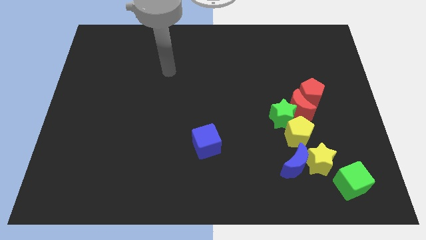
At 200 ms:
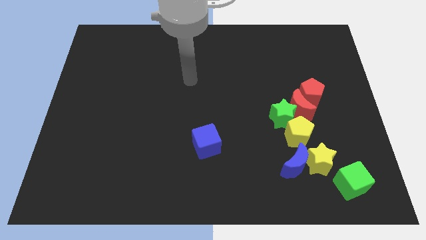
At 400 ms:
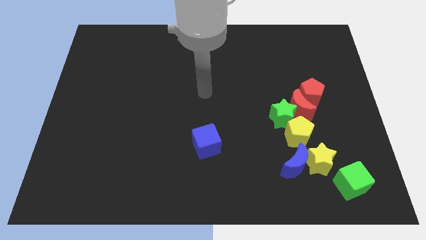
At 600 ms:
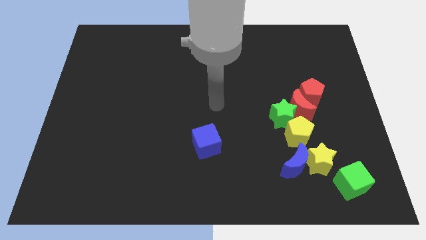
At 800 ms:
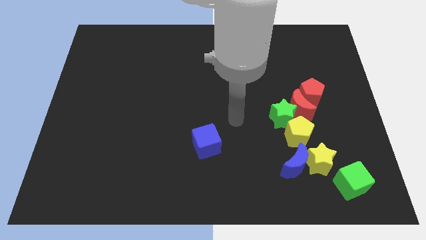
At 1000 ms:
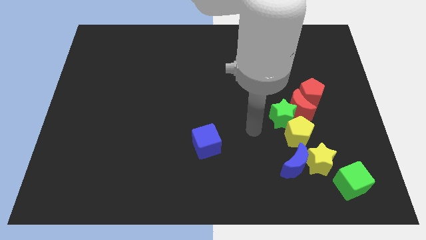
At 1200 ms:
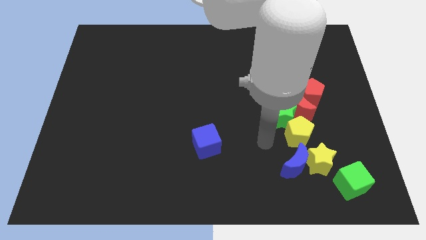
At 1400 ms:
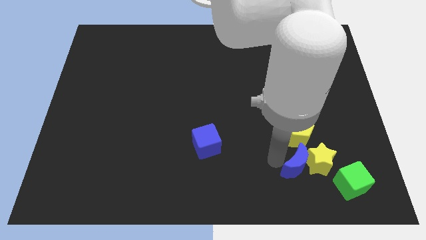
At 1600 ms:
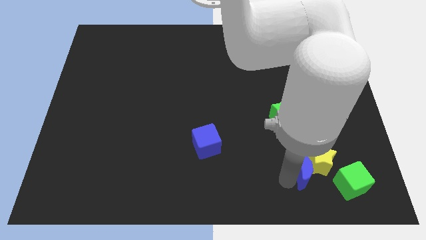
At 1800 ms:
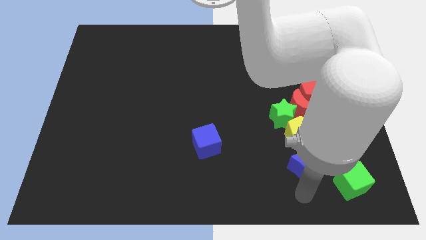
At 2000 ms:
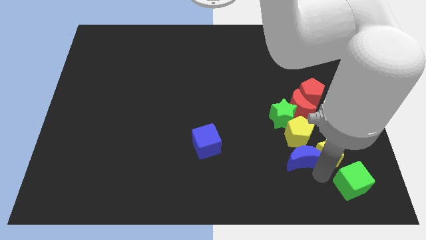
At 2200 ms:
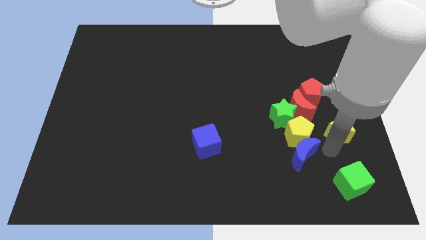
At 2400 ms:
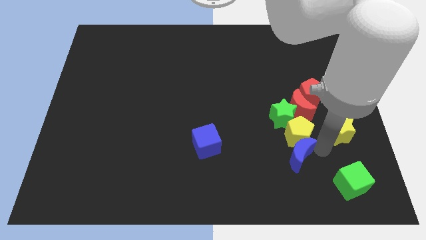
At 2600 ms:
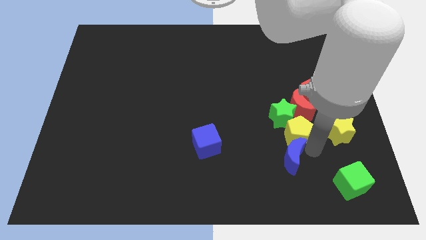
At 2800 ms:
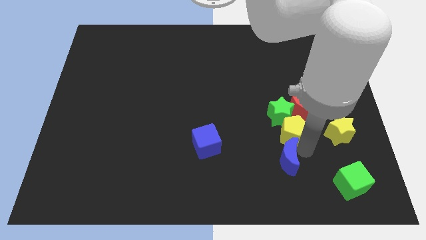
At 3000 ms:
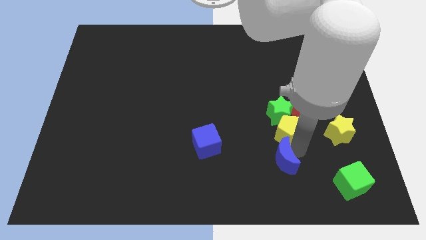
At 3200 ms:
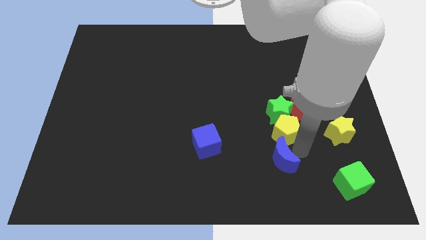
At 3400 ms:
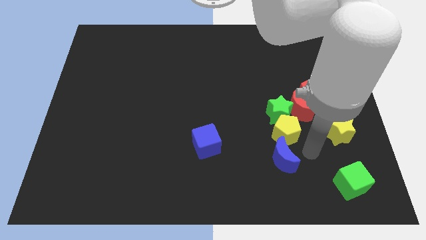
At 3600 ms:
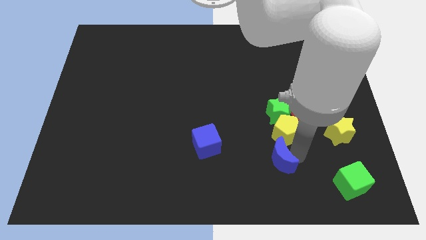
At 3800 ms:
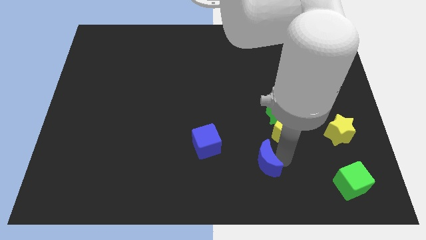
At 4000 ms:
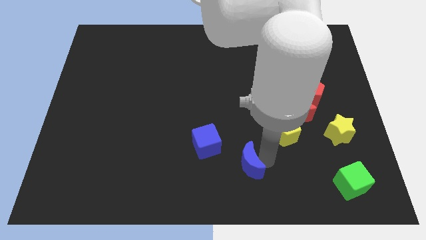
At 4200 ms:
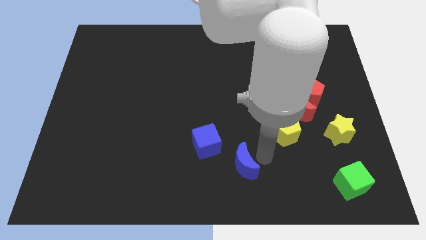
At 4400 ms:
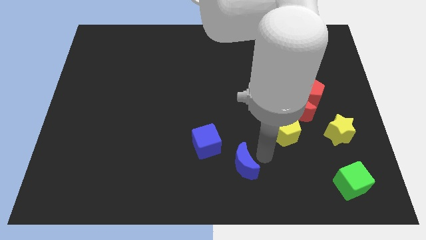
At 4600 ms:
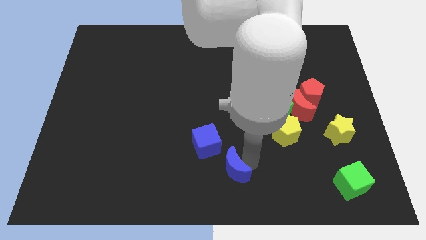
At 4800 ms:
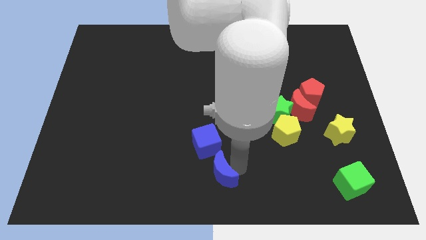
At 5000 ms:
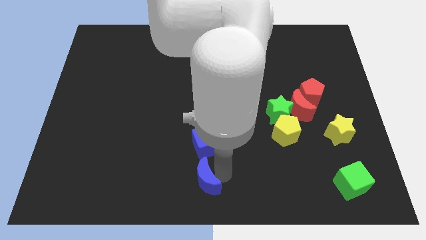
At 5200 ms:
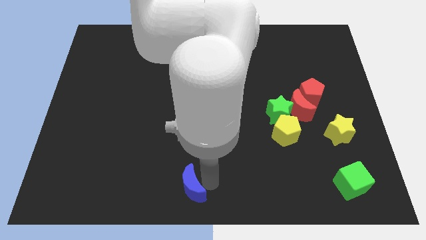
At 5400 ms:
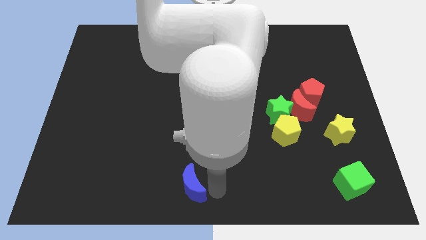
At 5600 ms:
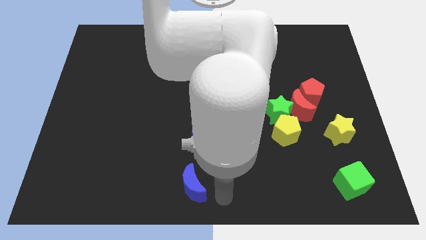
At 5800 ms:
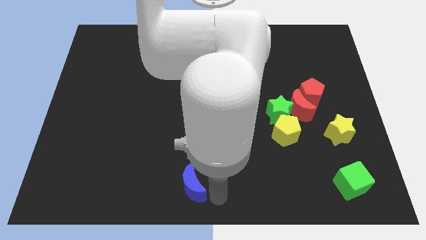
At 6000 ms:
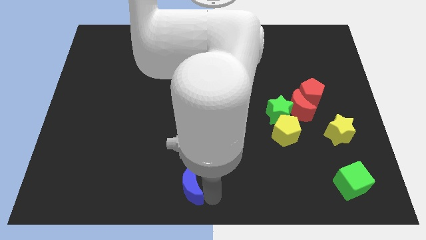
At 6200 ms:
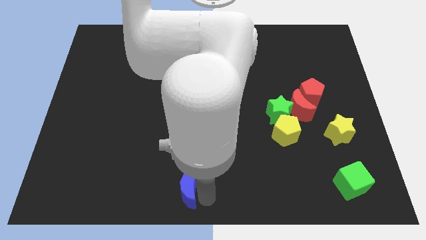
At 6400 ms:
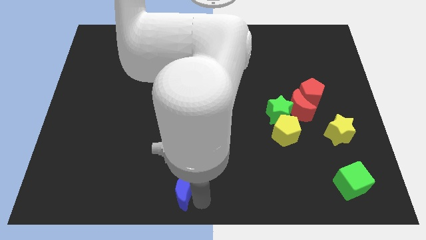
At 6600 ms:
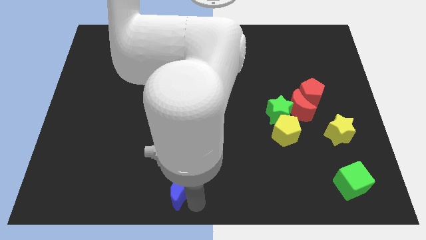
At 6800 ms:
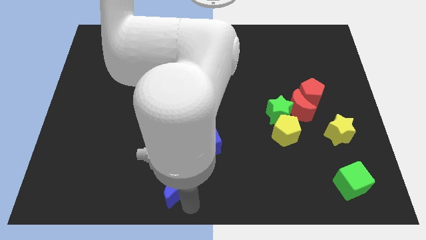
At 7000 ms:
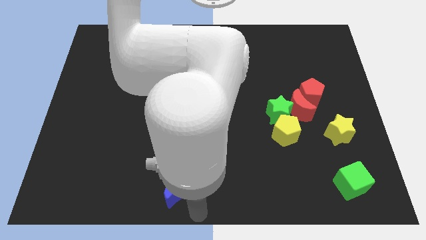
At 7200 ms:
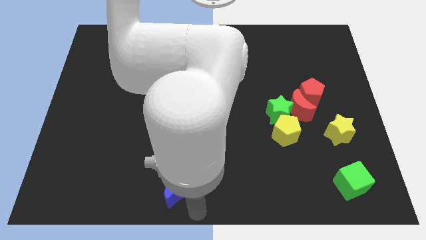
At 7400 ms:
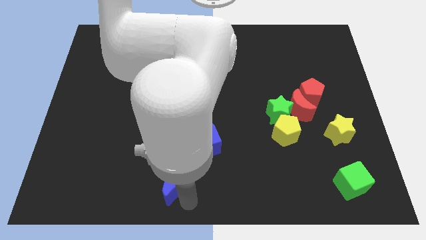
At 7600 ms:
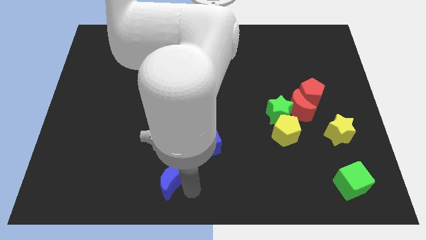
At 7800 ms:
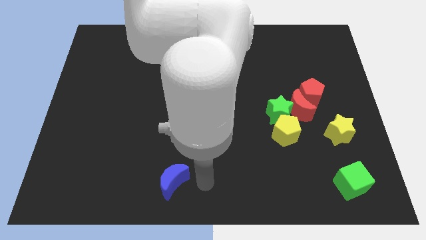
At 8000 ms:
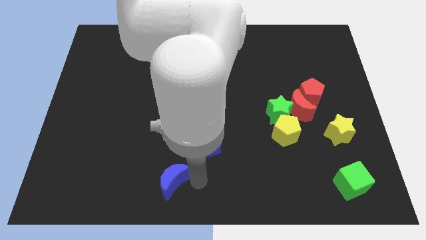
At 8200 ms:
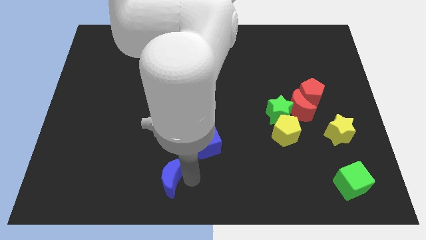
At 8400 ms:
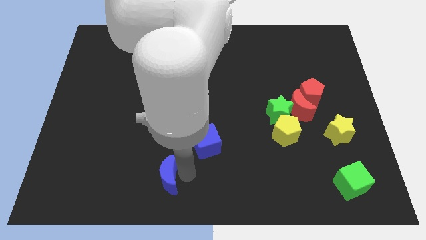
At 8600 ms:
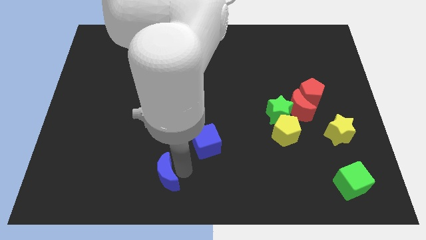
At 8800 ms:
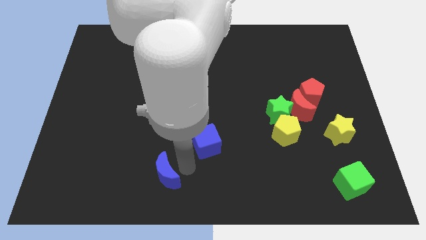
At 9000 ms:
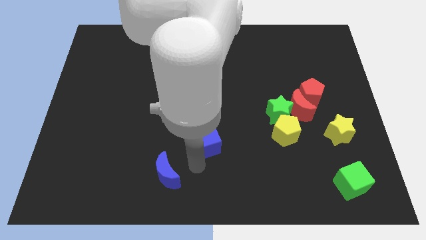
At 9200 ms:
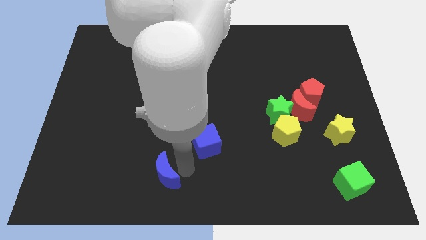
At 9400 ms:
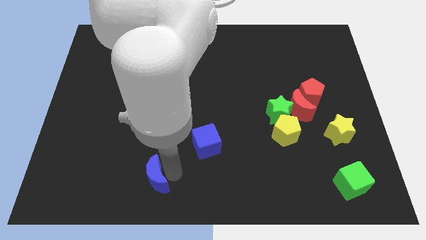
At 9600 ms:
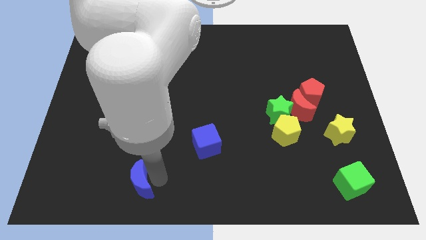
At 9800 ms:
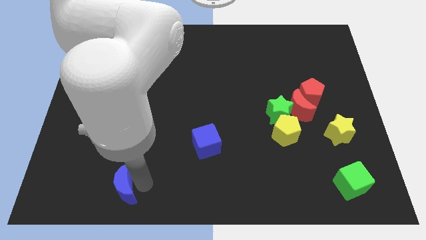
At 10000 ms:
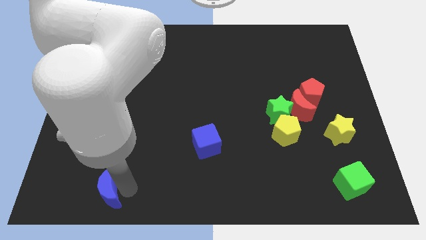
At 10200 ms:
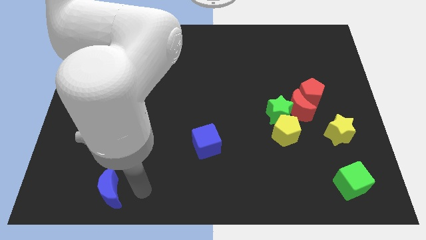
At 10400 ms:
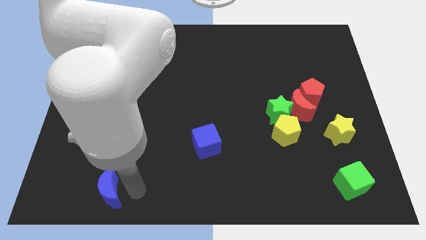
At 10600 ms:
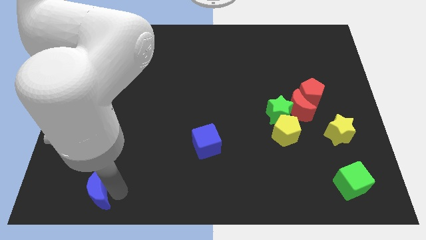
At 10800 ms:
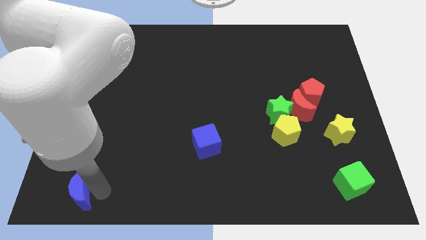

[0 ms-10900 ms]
move the blue moon to the bottom left corner

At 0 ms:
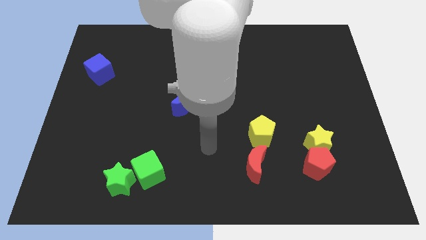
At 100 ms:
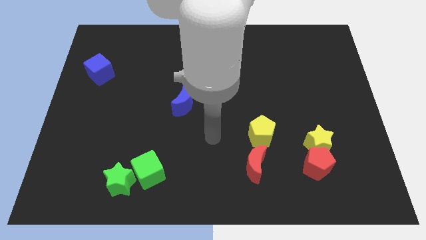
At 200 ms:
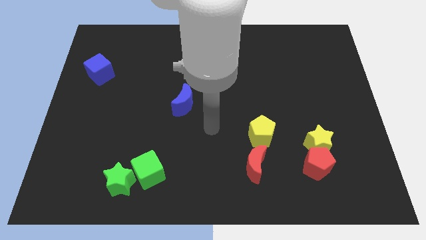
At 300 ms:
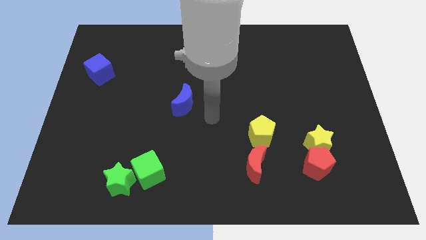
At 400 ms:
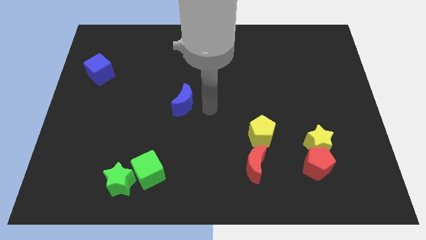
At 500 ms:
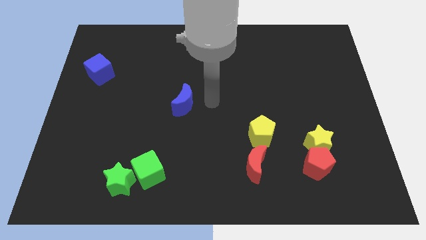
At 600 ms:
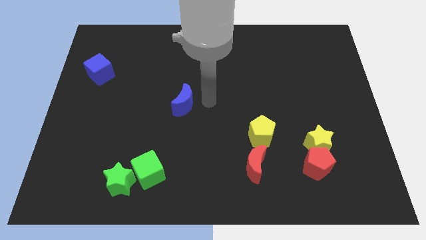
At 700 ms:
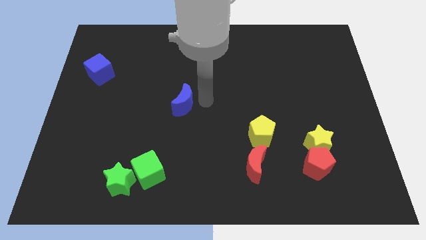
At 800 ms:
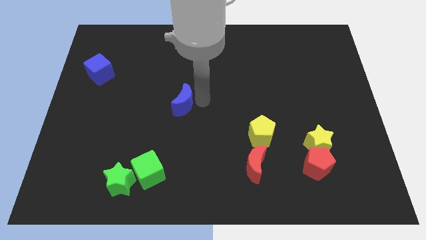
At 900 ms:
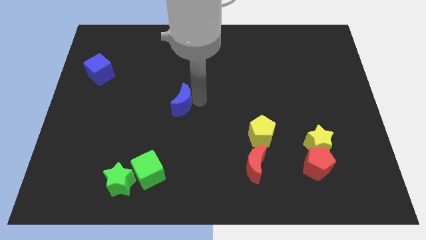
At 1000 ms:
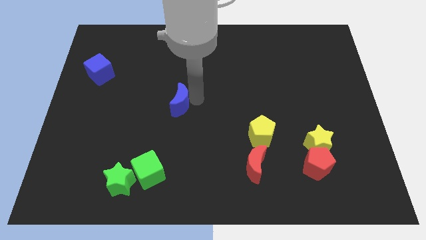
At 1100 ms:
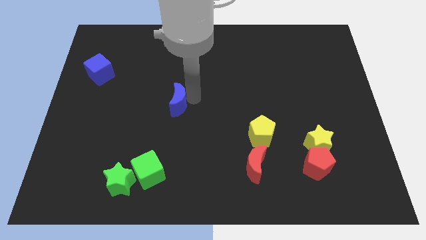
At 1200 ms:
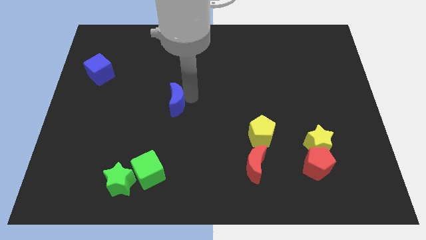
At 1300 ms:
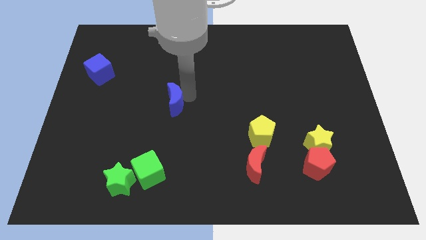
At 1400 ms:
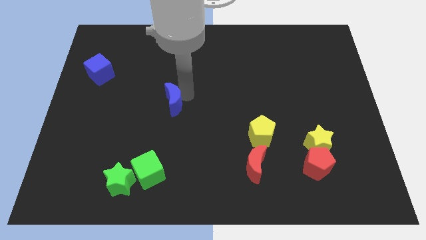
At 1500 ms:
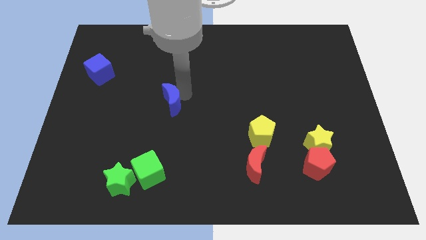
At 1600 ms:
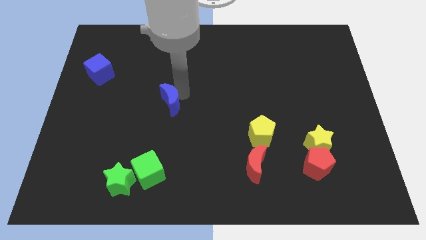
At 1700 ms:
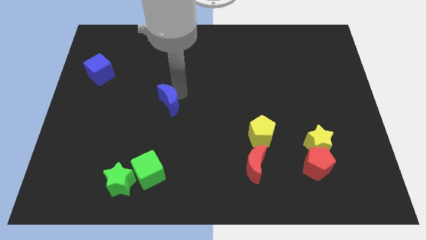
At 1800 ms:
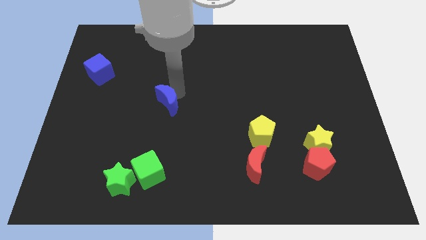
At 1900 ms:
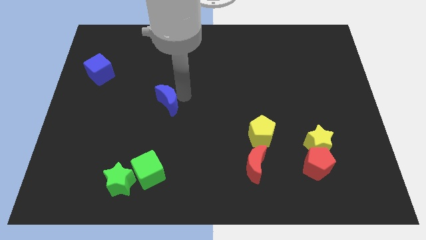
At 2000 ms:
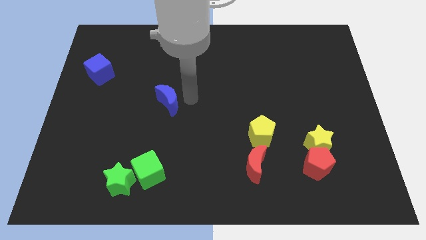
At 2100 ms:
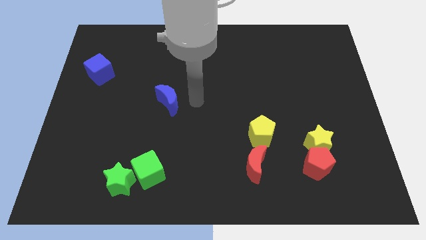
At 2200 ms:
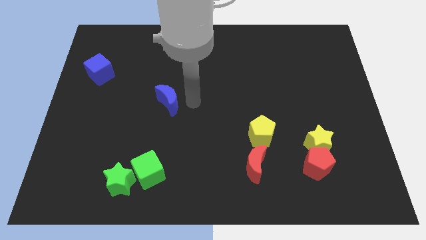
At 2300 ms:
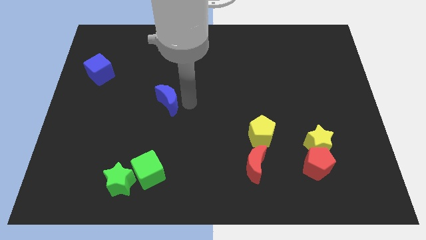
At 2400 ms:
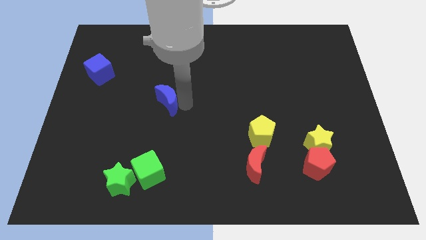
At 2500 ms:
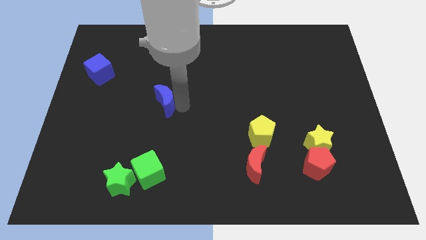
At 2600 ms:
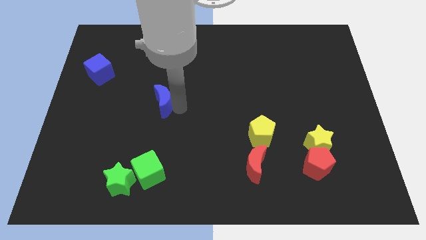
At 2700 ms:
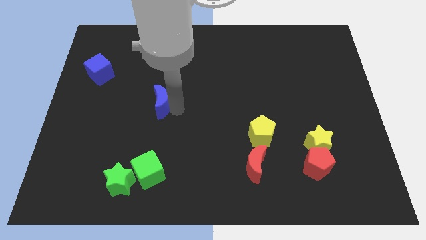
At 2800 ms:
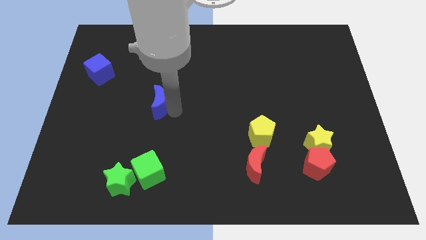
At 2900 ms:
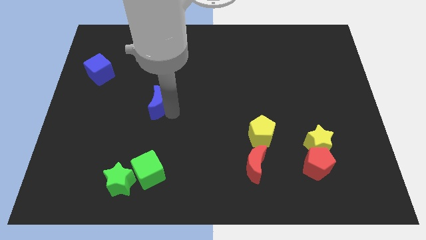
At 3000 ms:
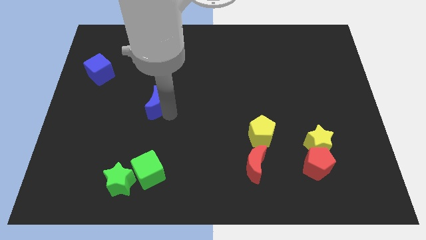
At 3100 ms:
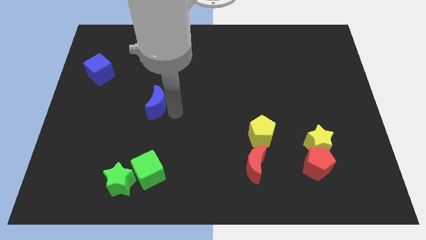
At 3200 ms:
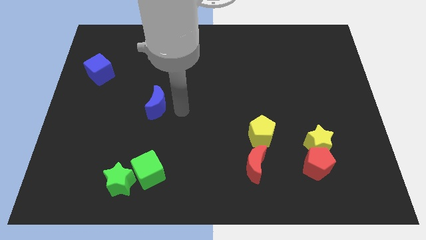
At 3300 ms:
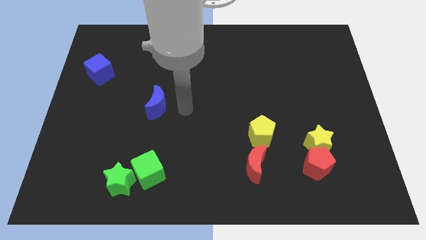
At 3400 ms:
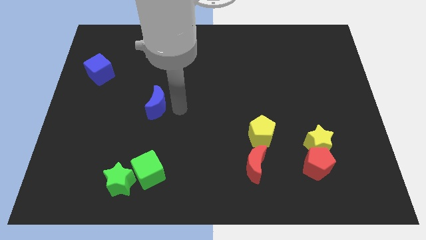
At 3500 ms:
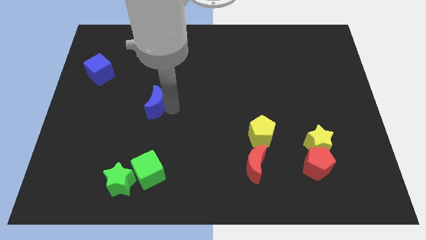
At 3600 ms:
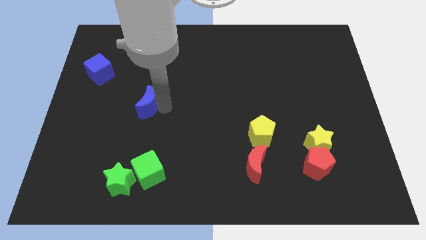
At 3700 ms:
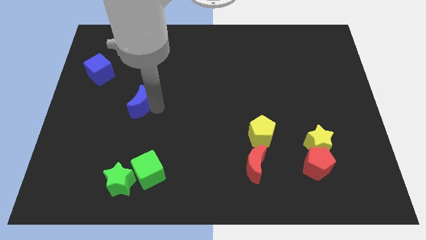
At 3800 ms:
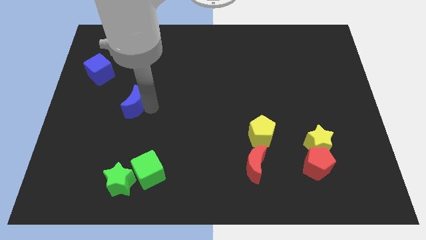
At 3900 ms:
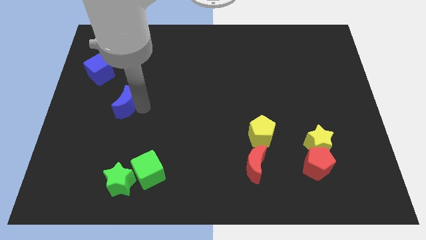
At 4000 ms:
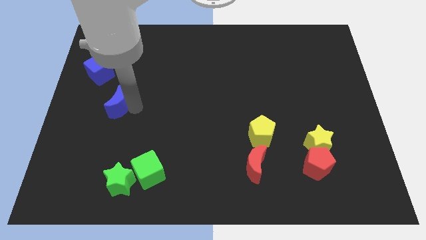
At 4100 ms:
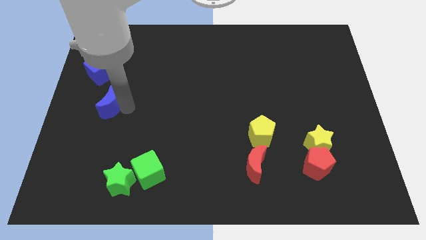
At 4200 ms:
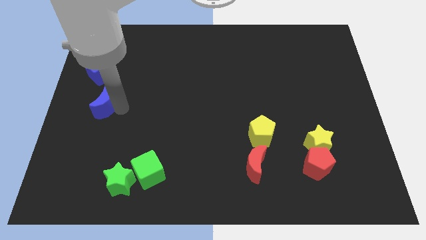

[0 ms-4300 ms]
put the blue moon to the center left
